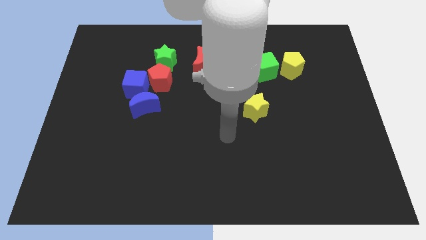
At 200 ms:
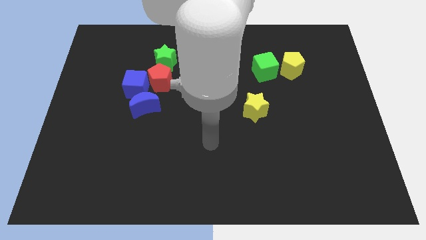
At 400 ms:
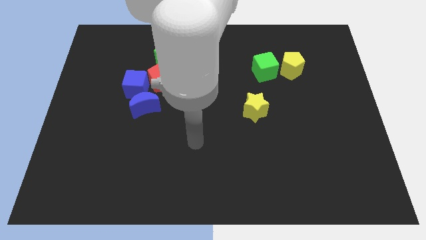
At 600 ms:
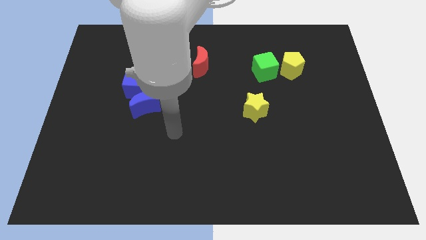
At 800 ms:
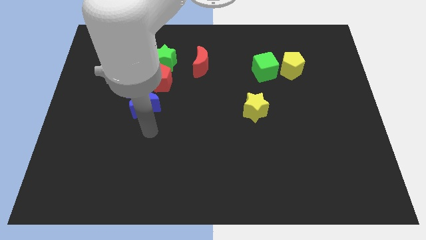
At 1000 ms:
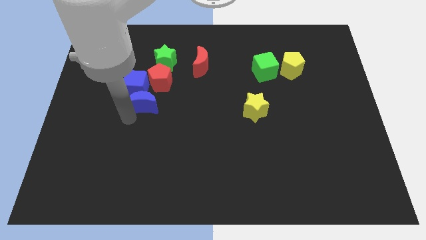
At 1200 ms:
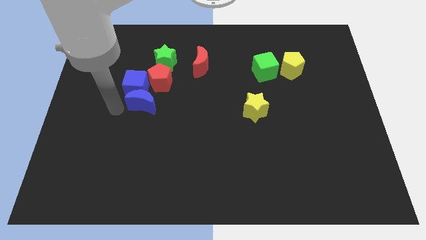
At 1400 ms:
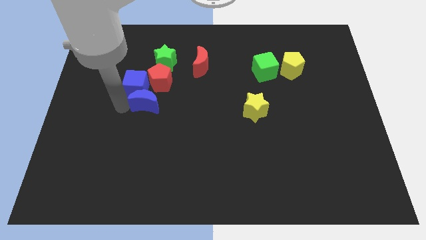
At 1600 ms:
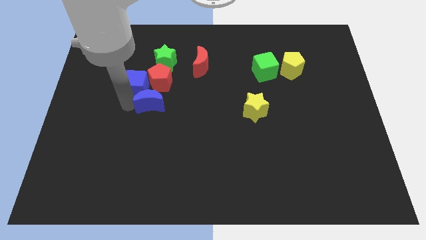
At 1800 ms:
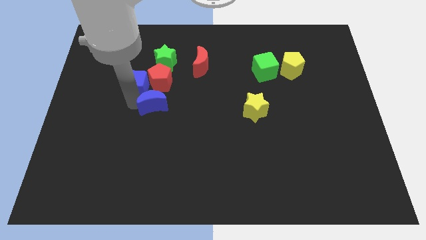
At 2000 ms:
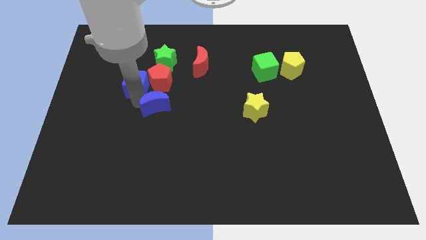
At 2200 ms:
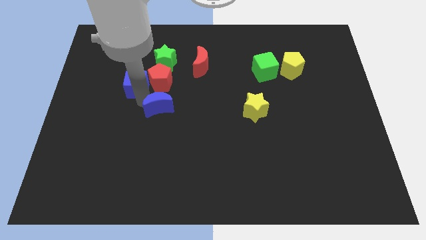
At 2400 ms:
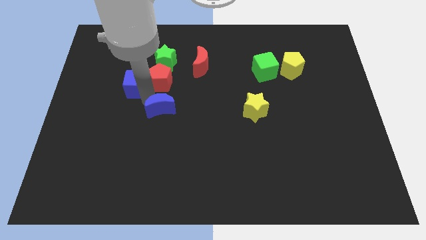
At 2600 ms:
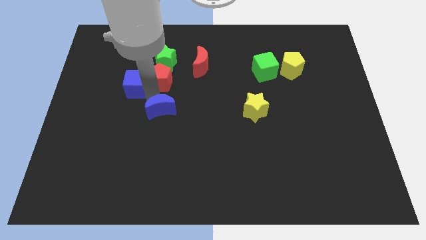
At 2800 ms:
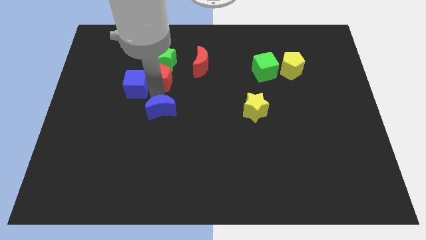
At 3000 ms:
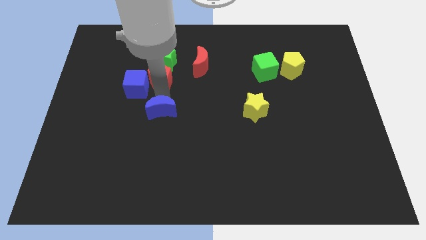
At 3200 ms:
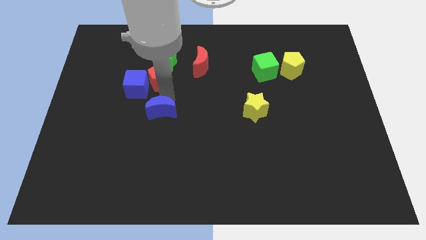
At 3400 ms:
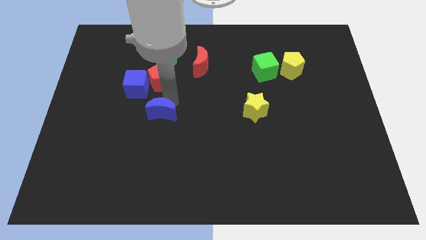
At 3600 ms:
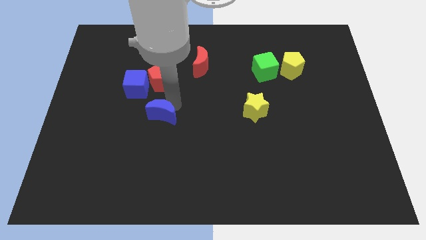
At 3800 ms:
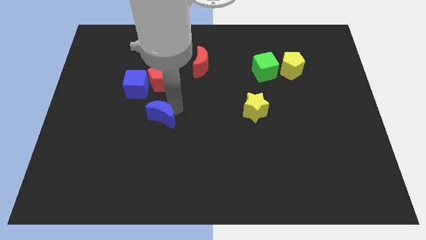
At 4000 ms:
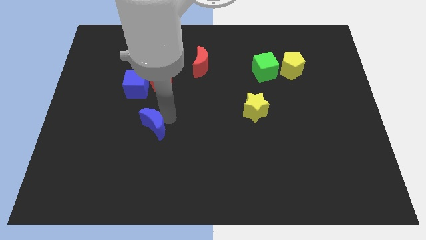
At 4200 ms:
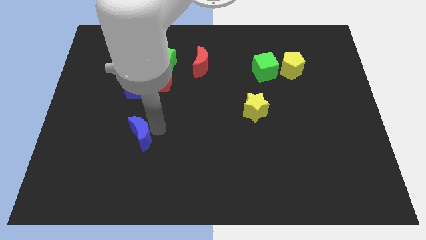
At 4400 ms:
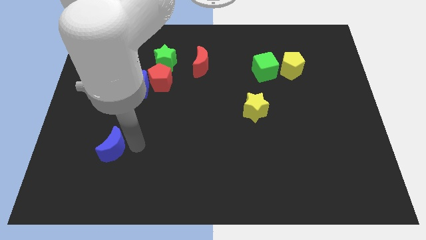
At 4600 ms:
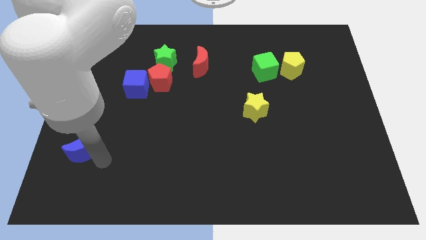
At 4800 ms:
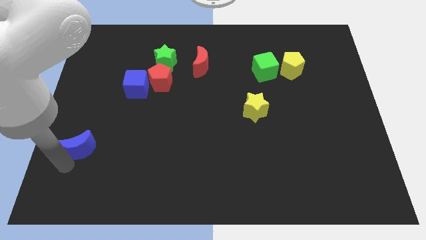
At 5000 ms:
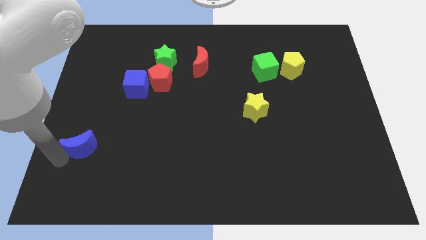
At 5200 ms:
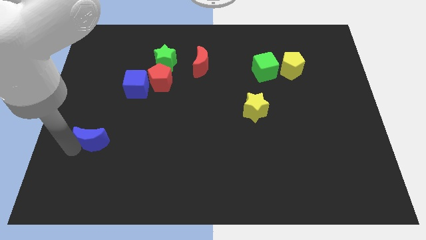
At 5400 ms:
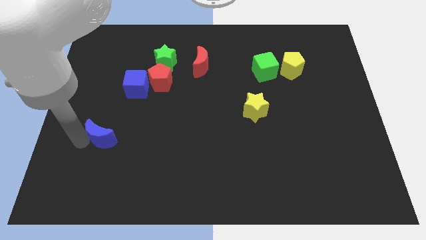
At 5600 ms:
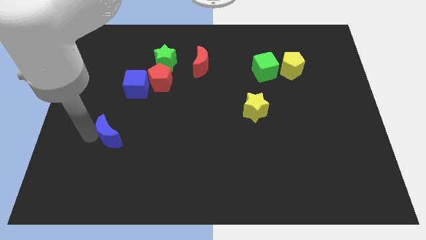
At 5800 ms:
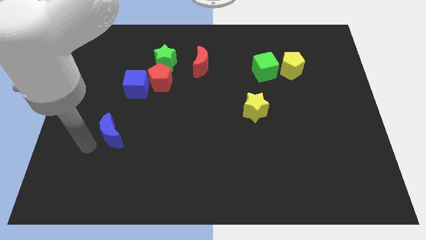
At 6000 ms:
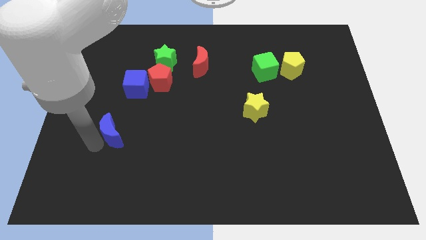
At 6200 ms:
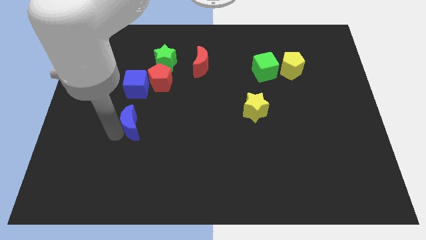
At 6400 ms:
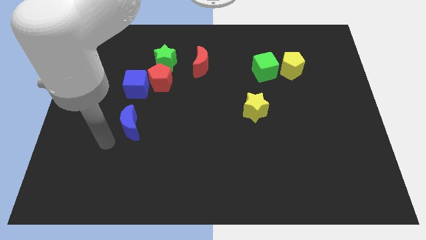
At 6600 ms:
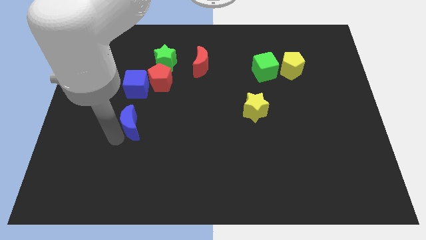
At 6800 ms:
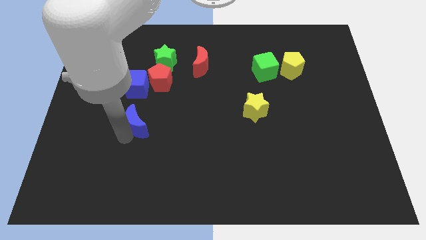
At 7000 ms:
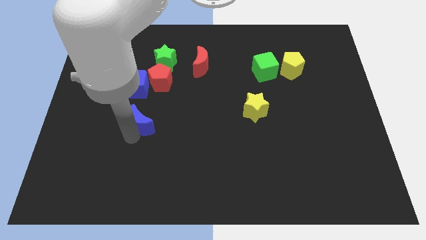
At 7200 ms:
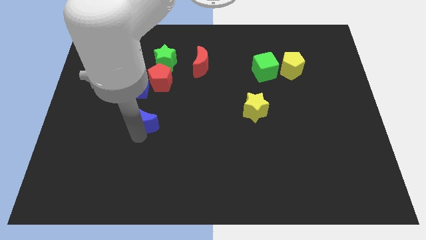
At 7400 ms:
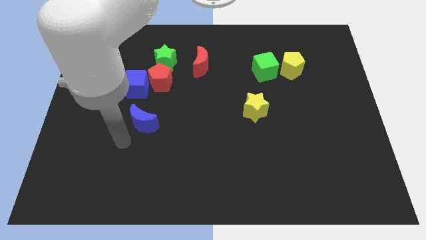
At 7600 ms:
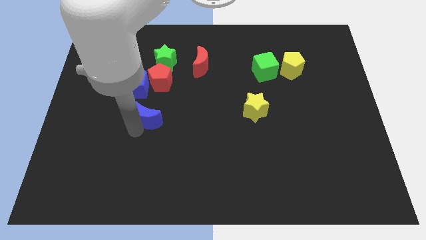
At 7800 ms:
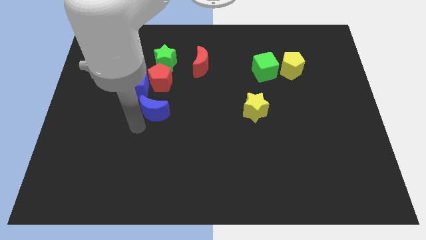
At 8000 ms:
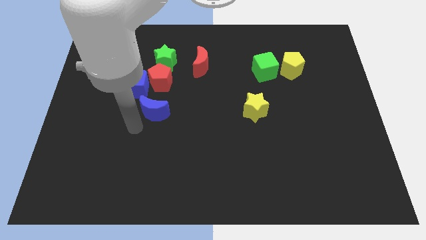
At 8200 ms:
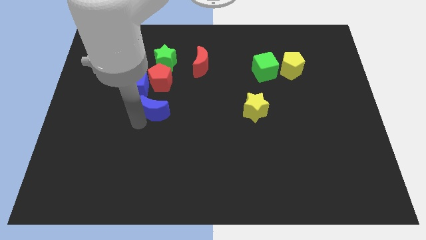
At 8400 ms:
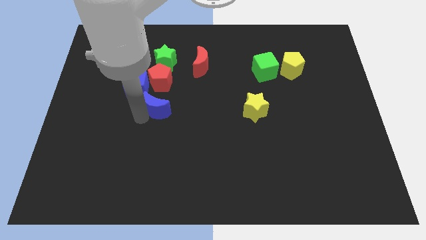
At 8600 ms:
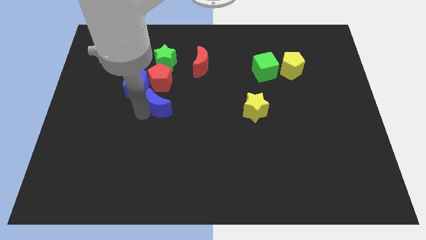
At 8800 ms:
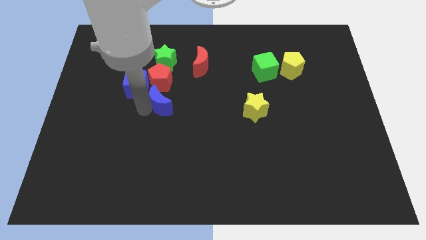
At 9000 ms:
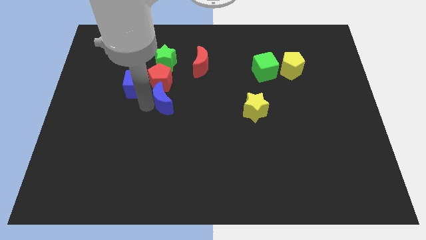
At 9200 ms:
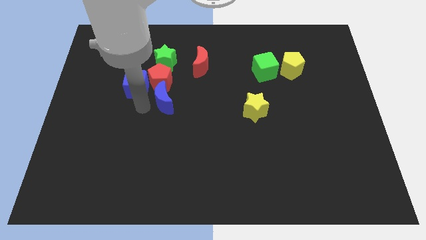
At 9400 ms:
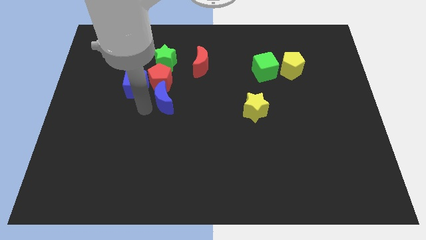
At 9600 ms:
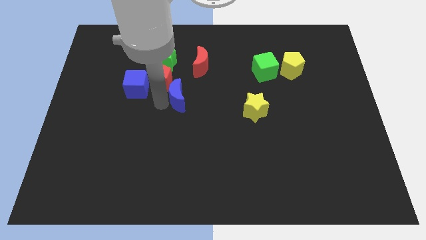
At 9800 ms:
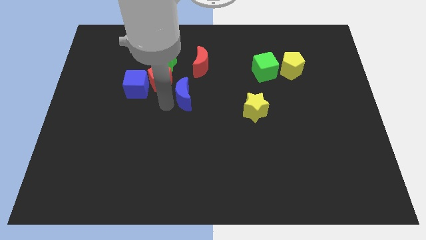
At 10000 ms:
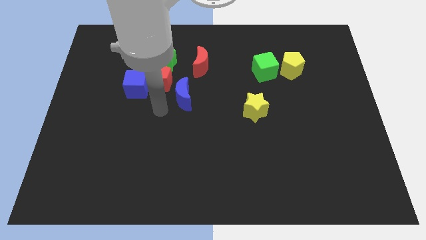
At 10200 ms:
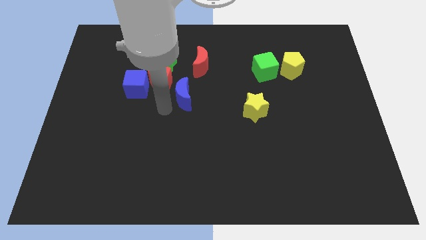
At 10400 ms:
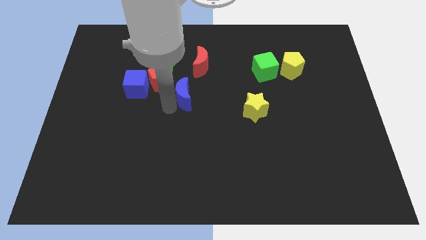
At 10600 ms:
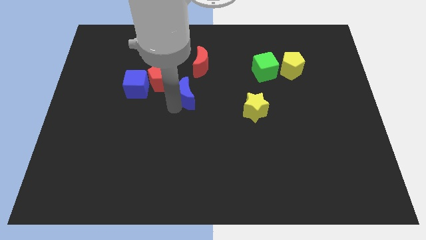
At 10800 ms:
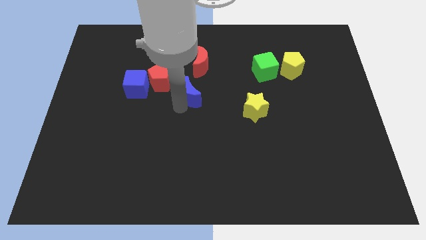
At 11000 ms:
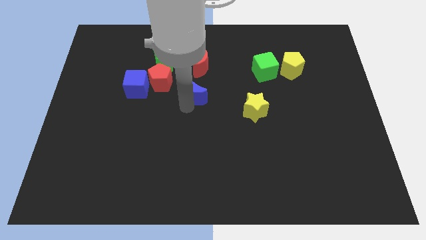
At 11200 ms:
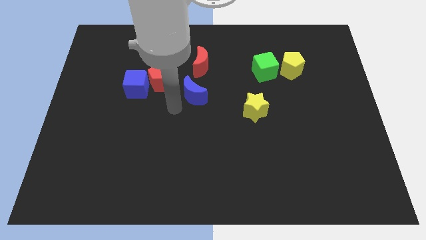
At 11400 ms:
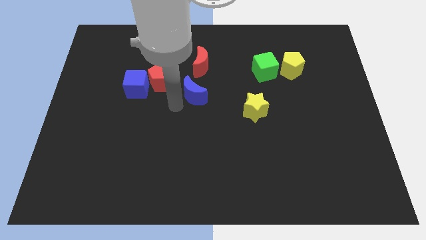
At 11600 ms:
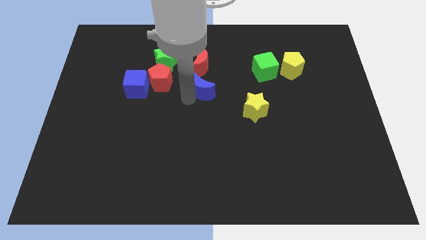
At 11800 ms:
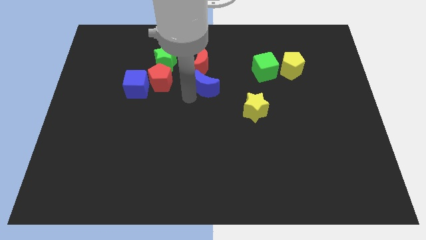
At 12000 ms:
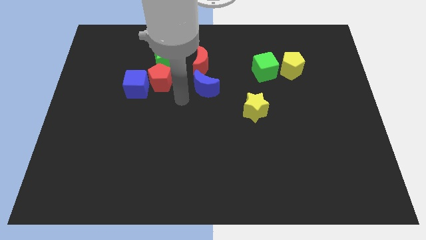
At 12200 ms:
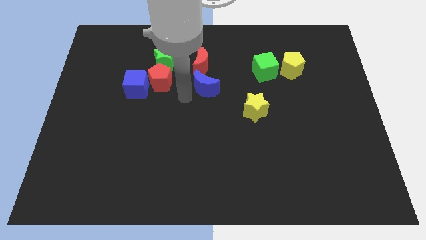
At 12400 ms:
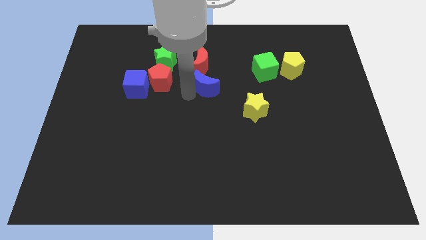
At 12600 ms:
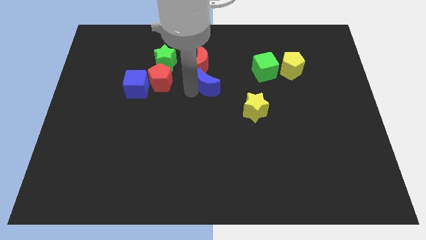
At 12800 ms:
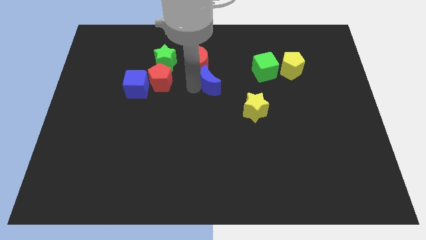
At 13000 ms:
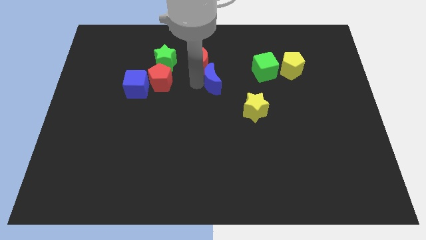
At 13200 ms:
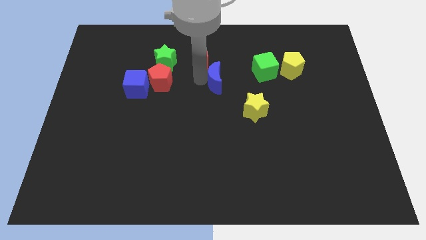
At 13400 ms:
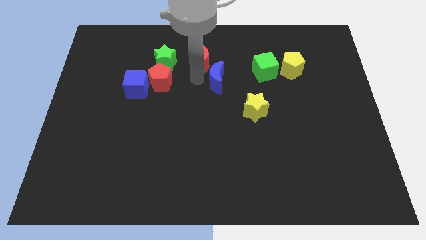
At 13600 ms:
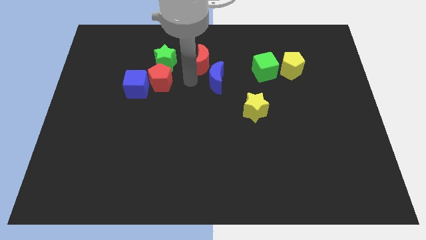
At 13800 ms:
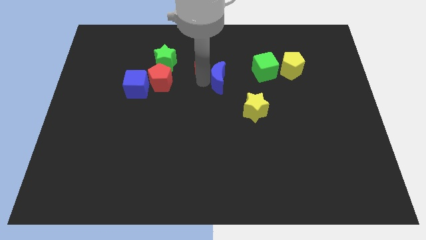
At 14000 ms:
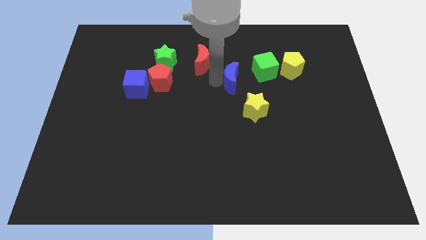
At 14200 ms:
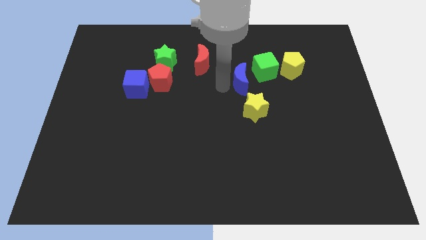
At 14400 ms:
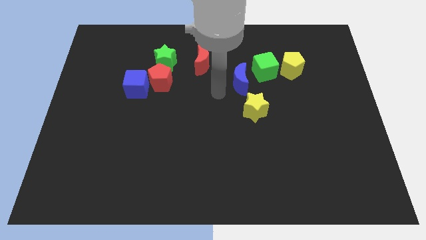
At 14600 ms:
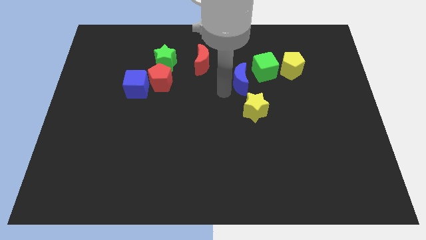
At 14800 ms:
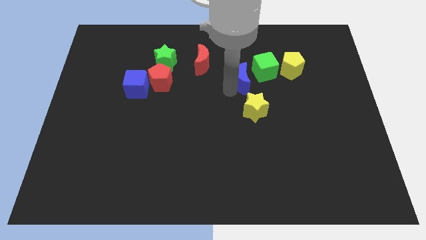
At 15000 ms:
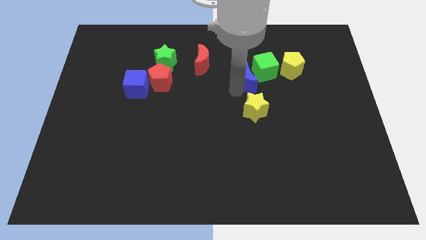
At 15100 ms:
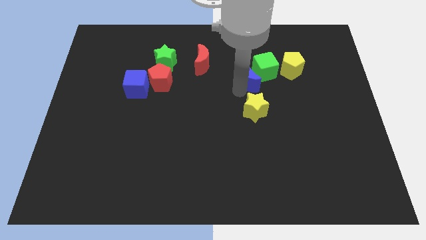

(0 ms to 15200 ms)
push the blue moon to the green cube
